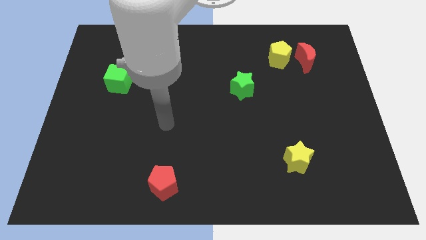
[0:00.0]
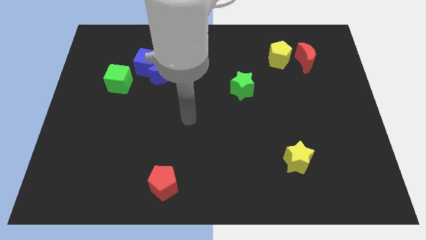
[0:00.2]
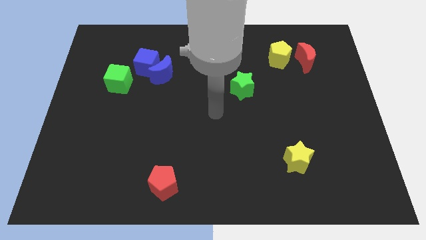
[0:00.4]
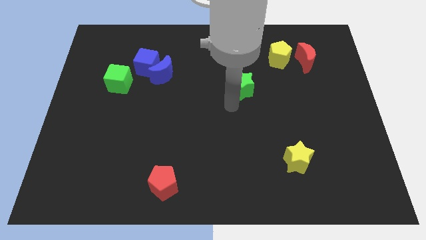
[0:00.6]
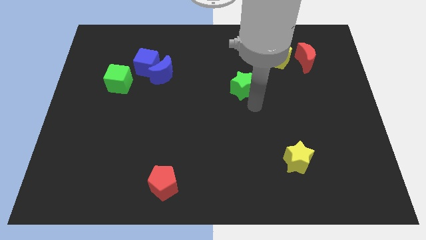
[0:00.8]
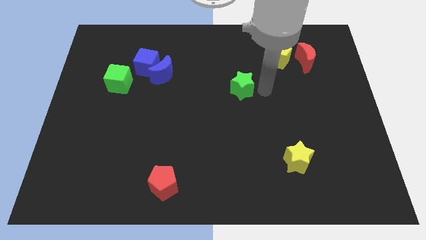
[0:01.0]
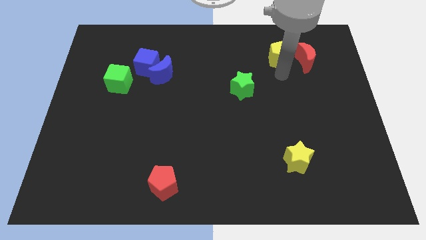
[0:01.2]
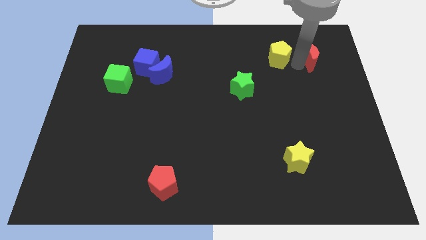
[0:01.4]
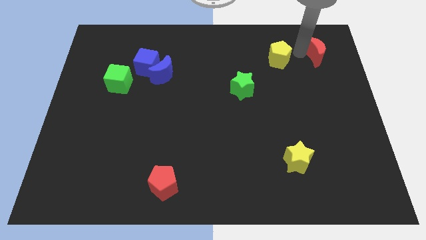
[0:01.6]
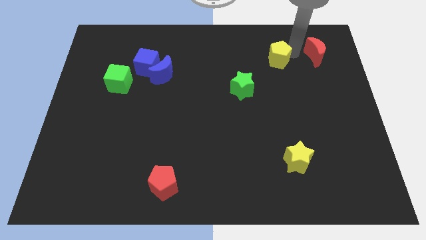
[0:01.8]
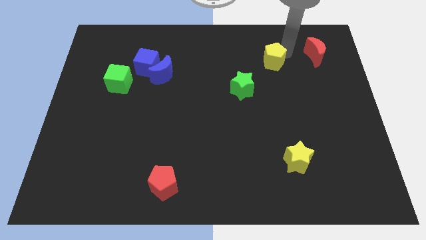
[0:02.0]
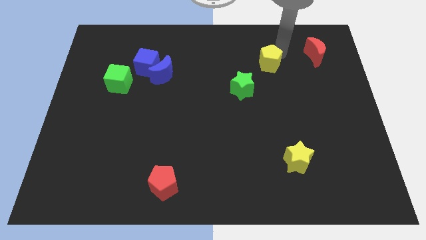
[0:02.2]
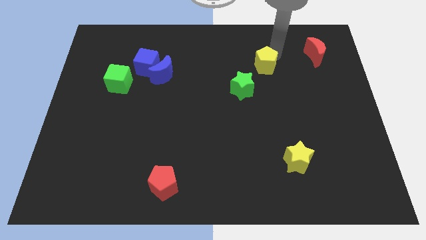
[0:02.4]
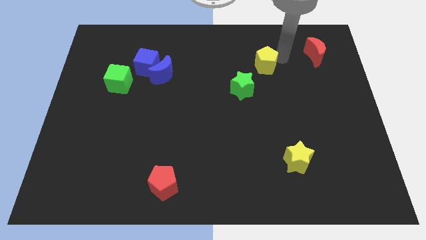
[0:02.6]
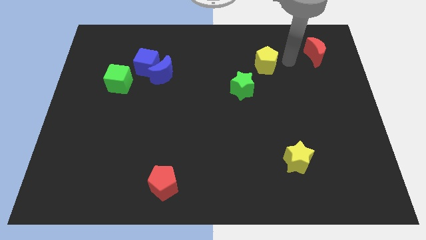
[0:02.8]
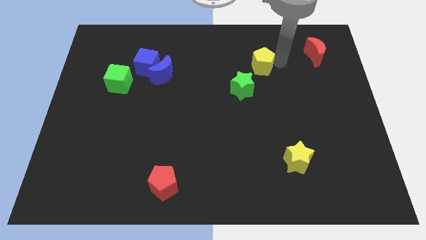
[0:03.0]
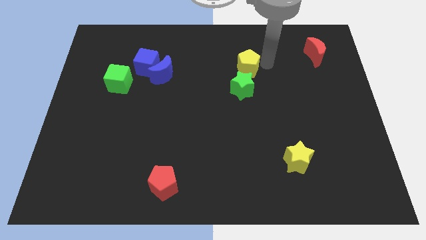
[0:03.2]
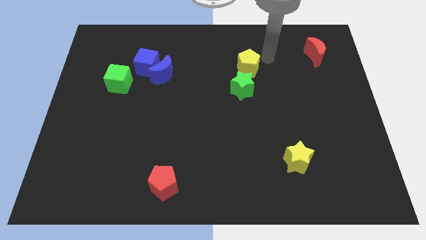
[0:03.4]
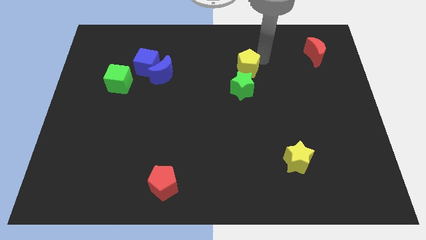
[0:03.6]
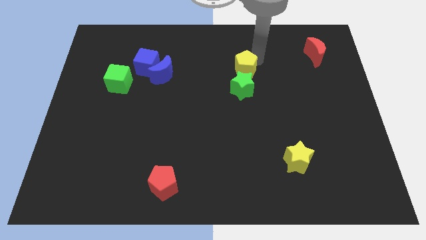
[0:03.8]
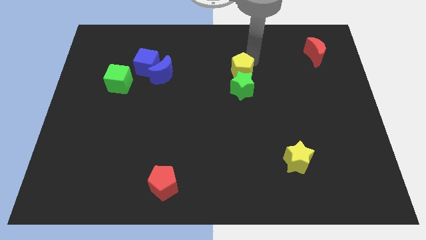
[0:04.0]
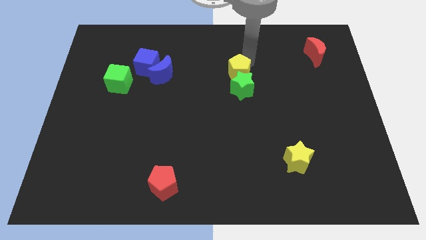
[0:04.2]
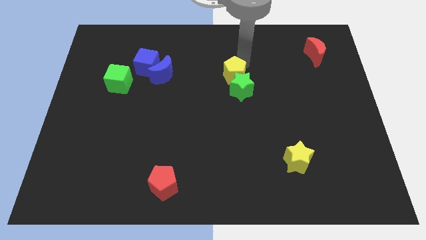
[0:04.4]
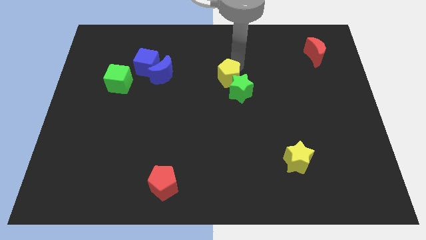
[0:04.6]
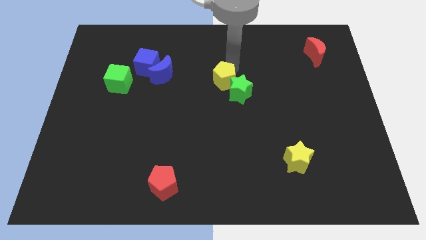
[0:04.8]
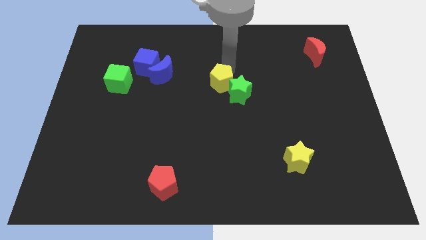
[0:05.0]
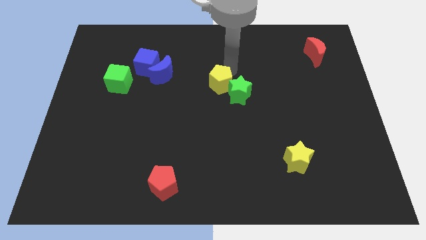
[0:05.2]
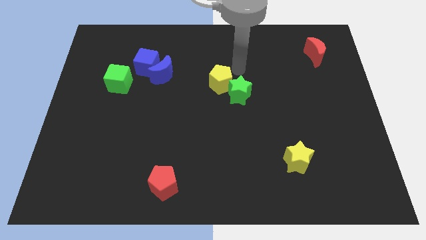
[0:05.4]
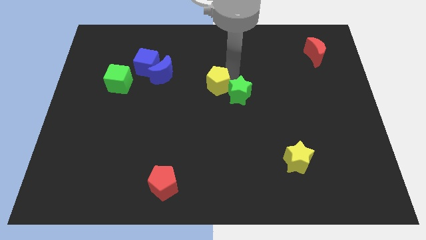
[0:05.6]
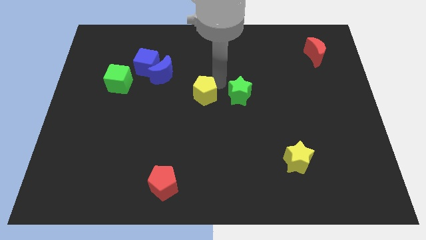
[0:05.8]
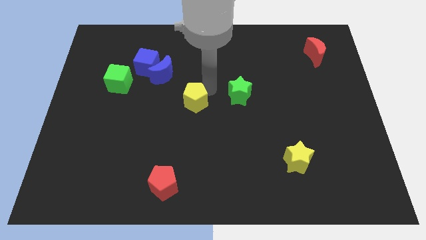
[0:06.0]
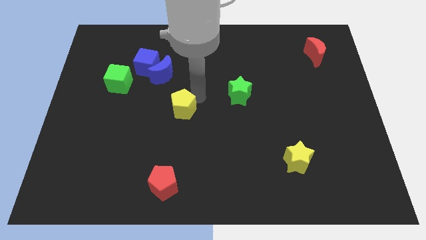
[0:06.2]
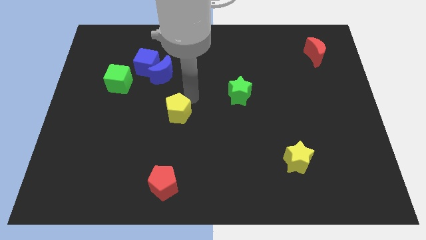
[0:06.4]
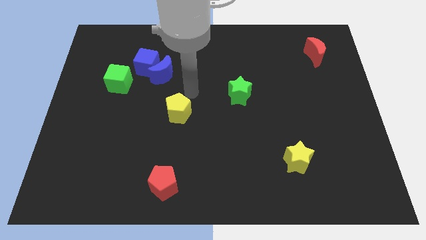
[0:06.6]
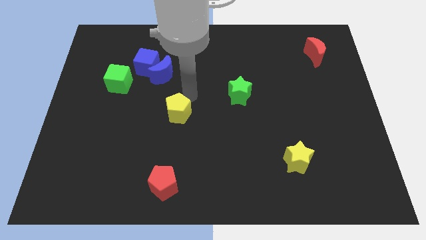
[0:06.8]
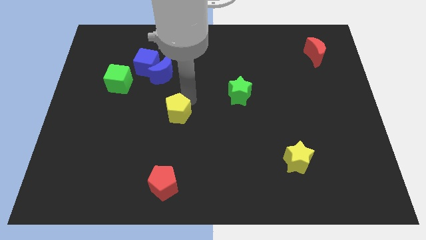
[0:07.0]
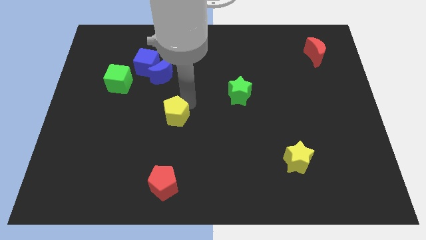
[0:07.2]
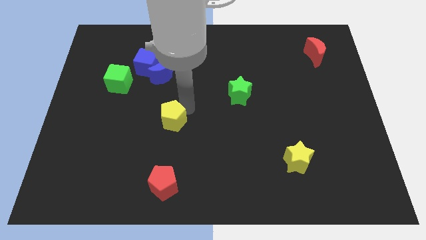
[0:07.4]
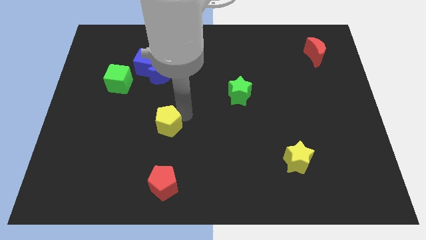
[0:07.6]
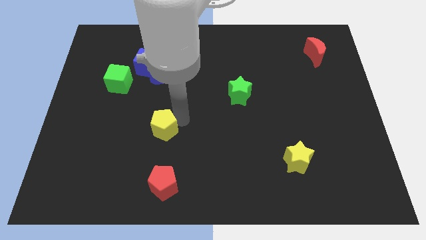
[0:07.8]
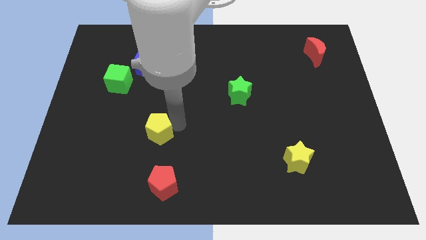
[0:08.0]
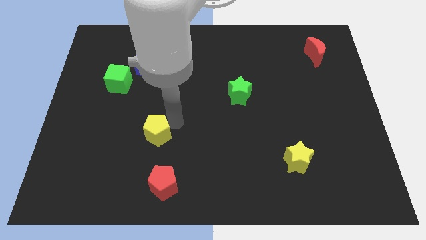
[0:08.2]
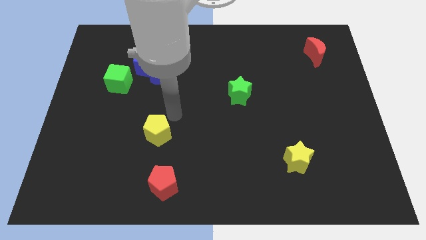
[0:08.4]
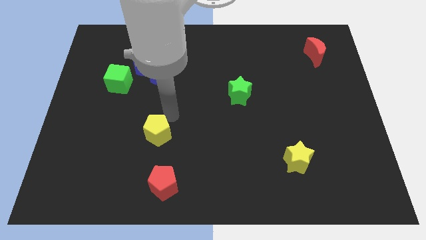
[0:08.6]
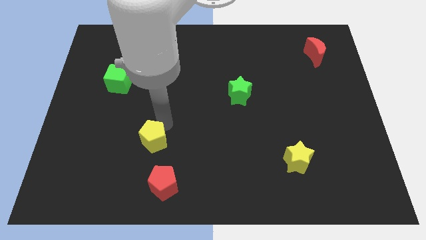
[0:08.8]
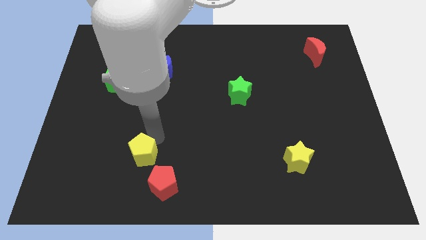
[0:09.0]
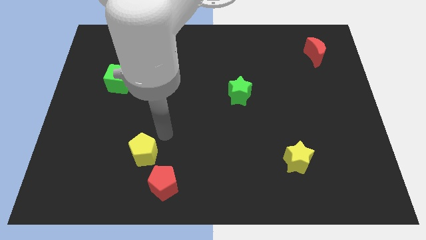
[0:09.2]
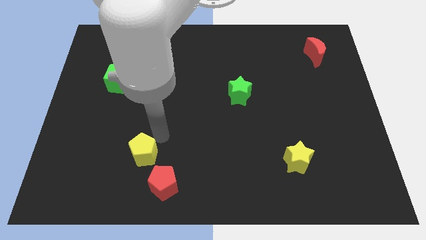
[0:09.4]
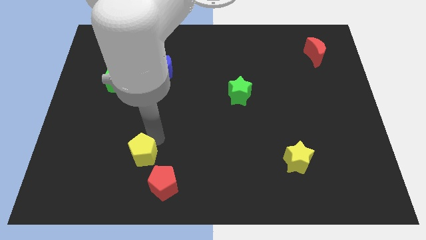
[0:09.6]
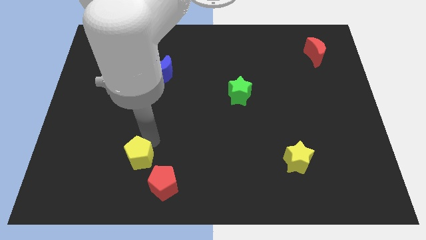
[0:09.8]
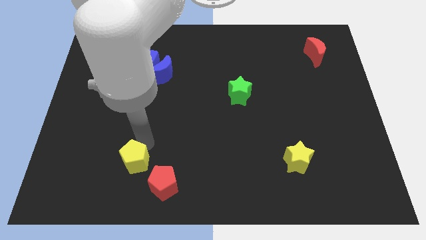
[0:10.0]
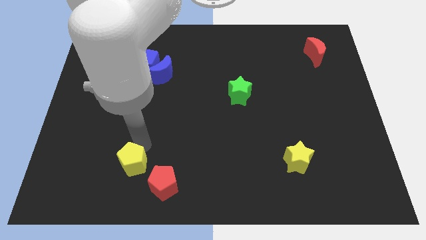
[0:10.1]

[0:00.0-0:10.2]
slide the yellow pentagon to the left side of the red pentagon

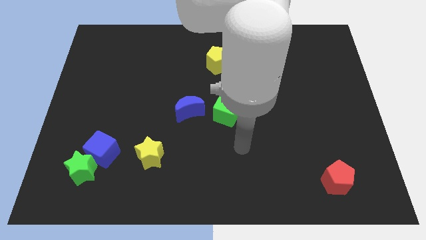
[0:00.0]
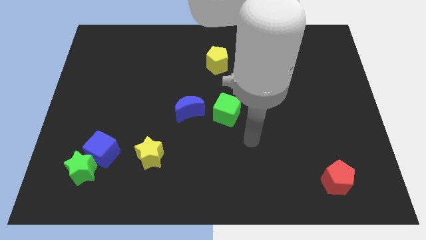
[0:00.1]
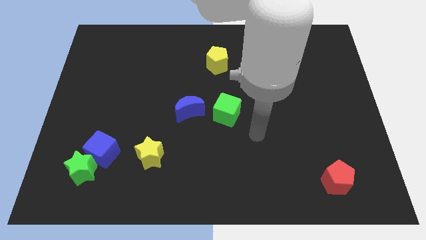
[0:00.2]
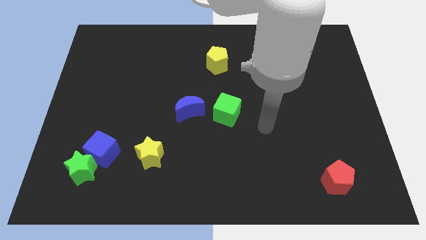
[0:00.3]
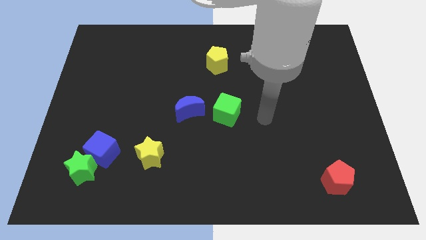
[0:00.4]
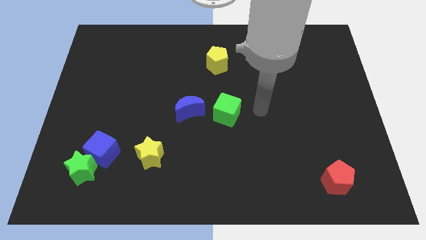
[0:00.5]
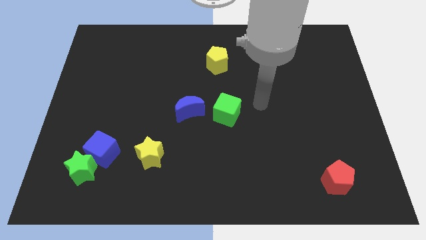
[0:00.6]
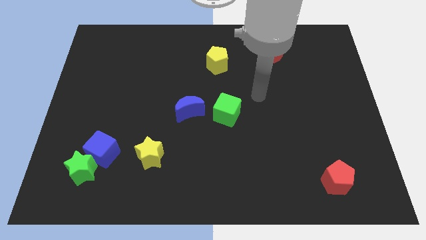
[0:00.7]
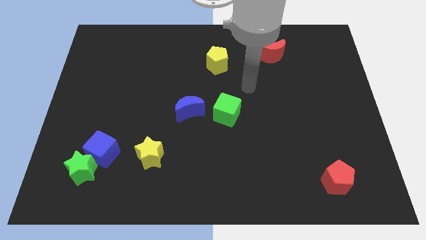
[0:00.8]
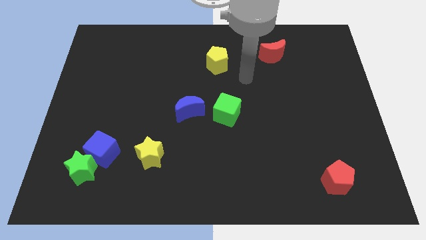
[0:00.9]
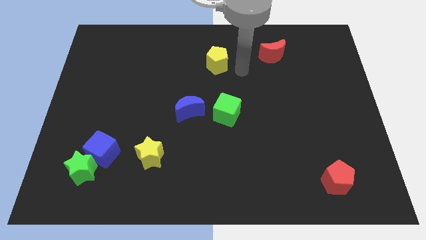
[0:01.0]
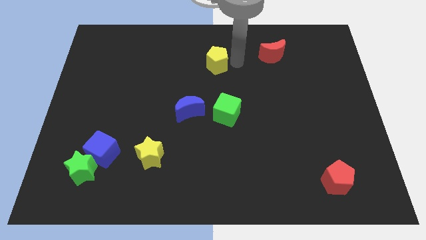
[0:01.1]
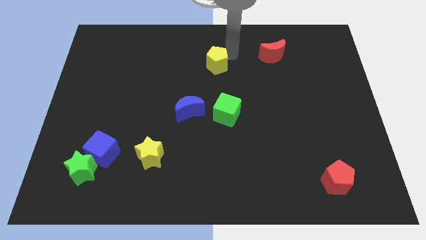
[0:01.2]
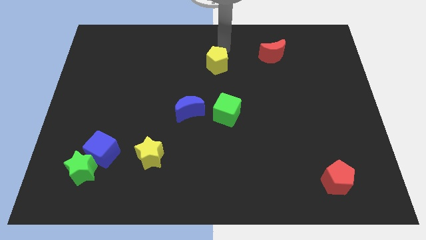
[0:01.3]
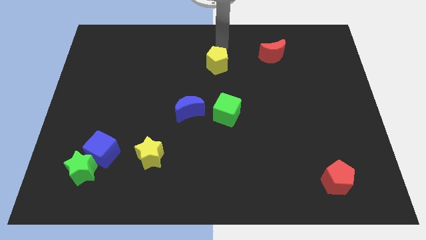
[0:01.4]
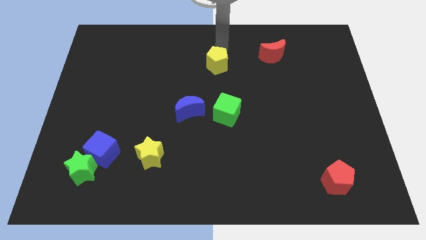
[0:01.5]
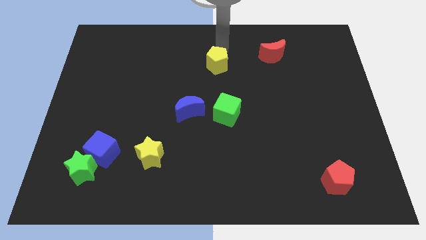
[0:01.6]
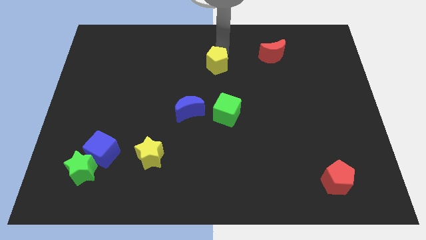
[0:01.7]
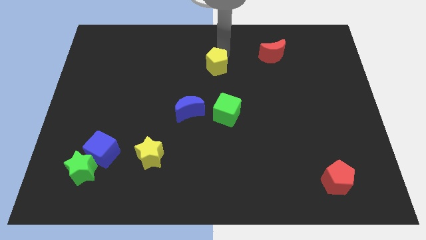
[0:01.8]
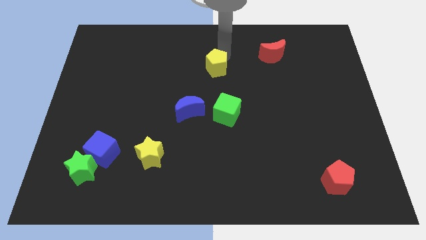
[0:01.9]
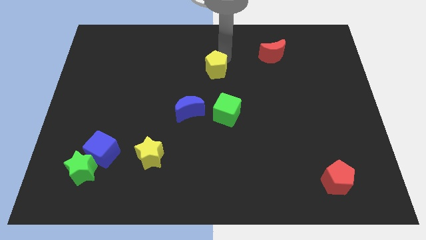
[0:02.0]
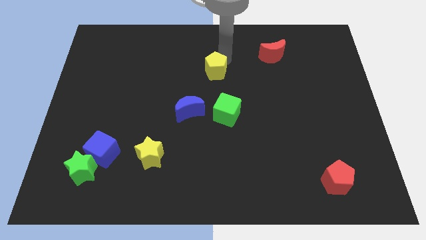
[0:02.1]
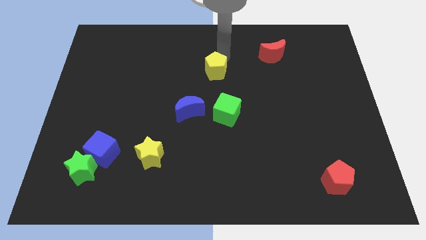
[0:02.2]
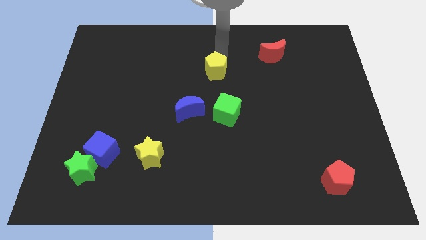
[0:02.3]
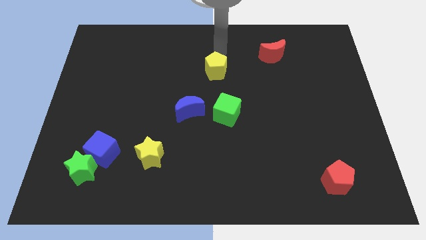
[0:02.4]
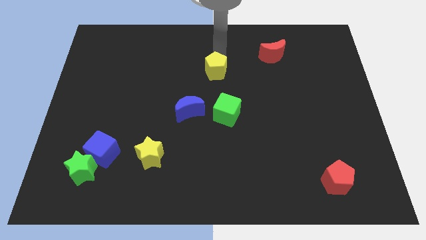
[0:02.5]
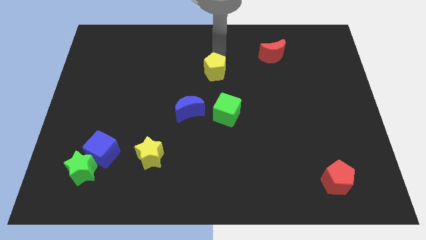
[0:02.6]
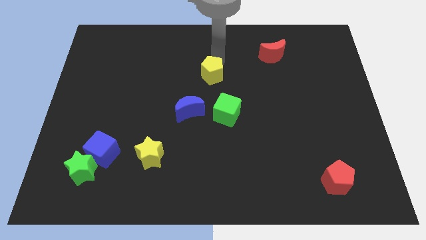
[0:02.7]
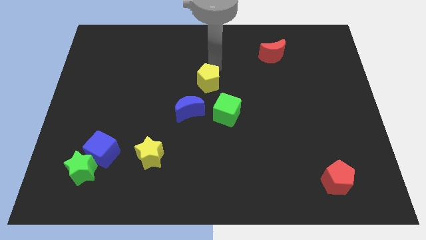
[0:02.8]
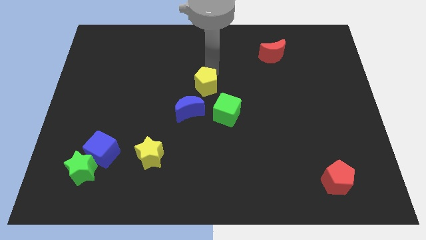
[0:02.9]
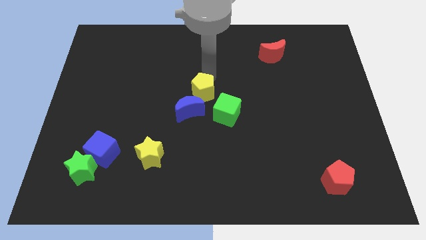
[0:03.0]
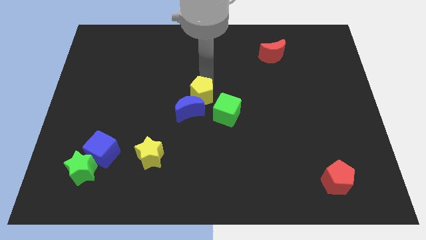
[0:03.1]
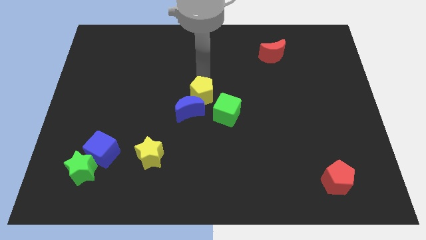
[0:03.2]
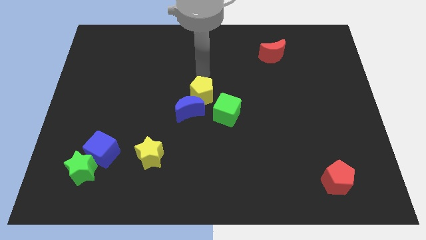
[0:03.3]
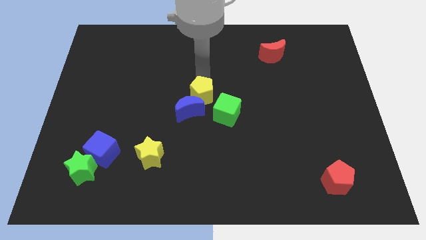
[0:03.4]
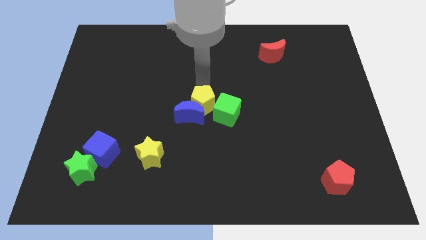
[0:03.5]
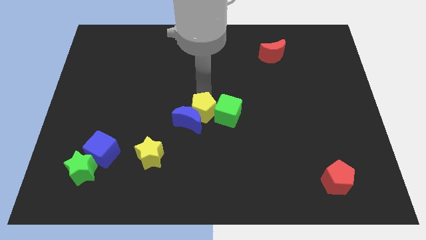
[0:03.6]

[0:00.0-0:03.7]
slide the yellow pentagon diagonally down and to the left of the green cube

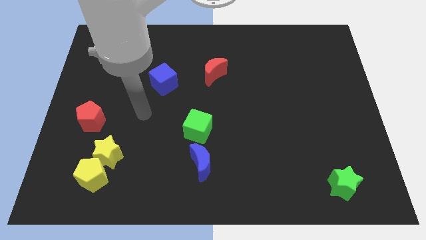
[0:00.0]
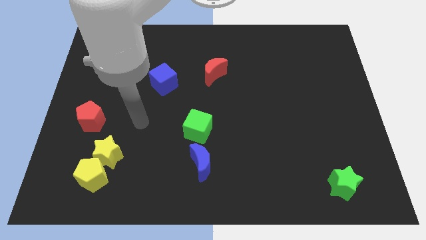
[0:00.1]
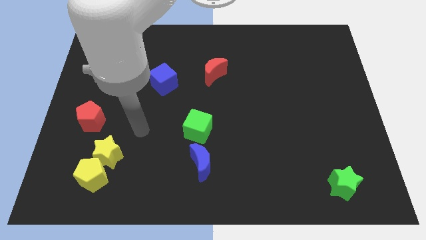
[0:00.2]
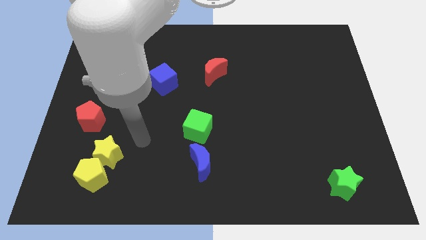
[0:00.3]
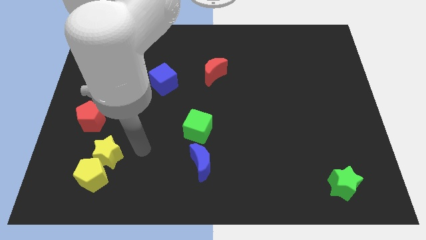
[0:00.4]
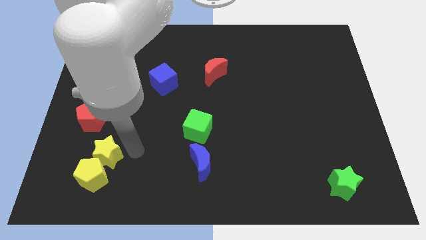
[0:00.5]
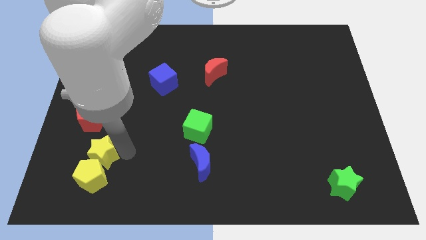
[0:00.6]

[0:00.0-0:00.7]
slide the yellow star to the bottom side of the red pentagon
